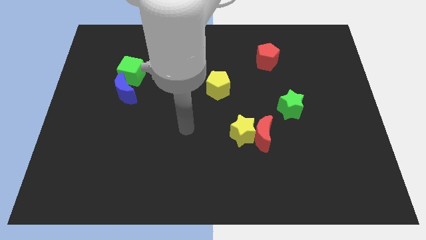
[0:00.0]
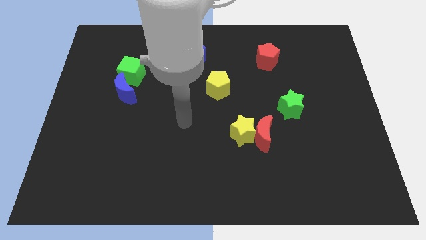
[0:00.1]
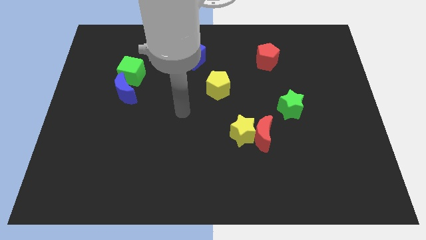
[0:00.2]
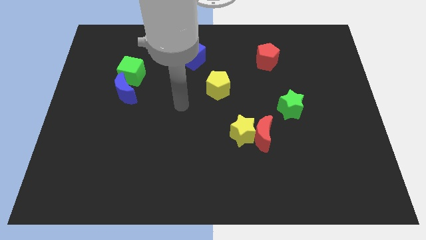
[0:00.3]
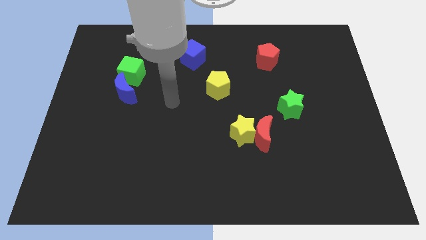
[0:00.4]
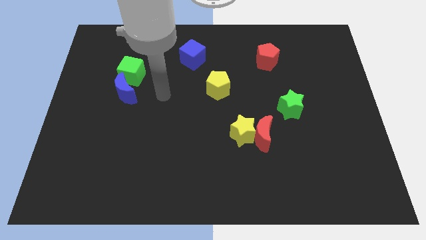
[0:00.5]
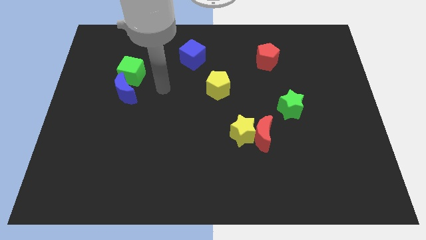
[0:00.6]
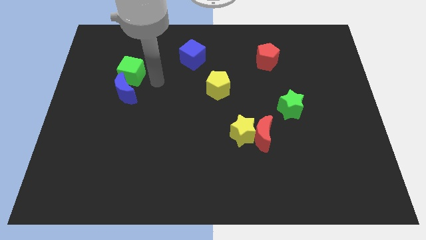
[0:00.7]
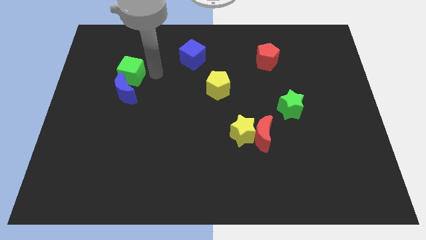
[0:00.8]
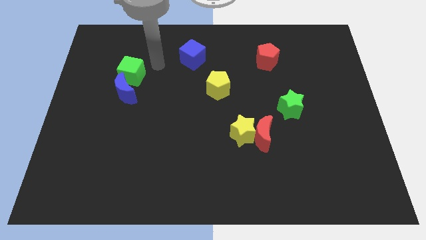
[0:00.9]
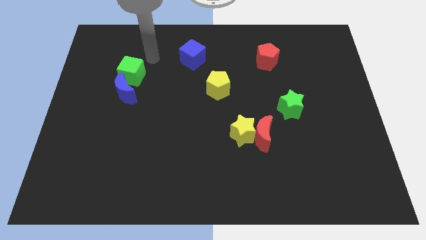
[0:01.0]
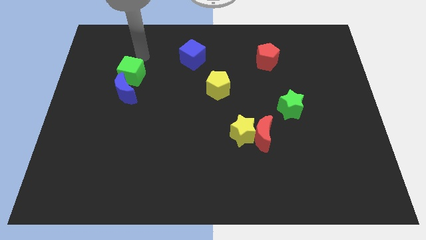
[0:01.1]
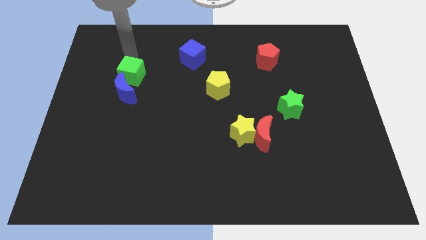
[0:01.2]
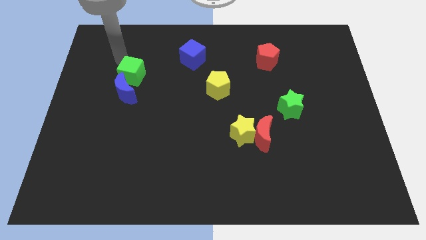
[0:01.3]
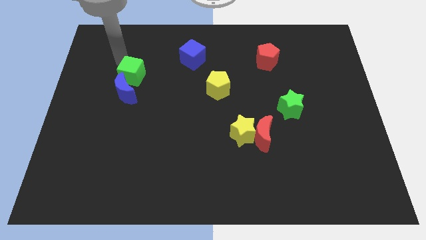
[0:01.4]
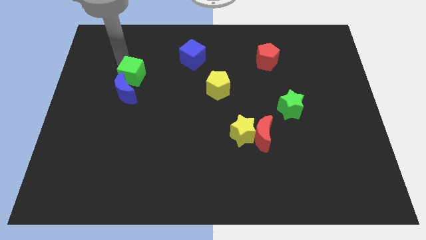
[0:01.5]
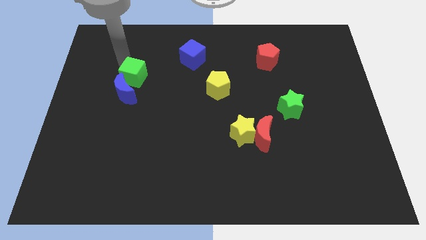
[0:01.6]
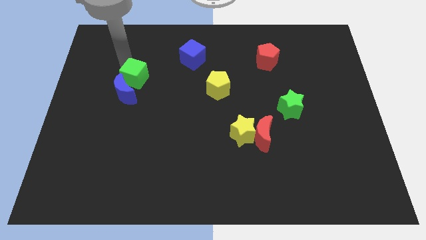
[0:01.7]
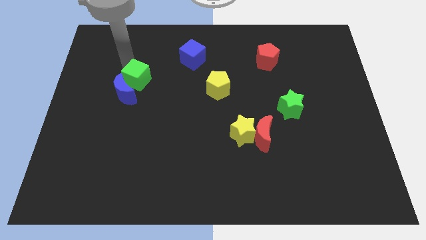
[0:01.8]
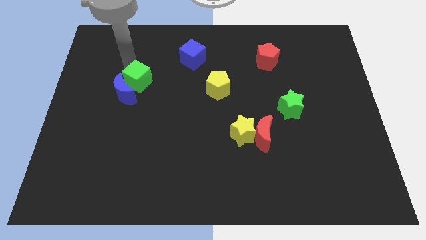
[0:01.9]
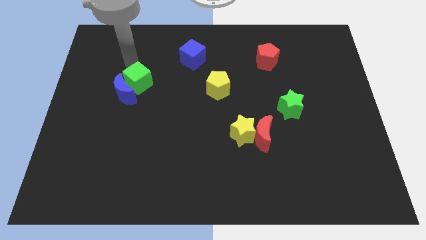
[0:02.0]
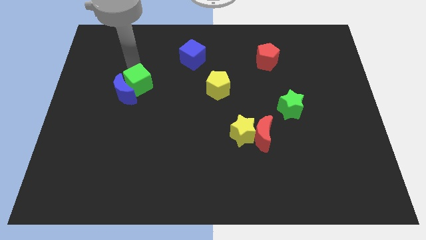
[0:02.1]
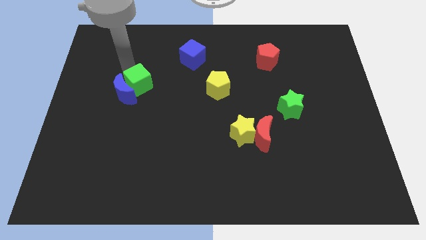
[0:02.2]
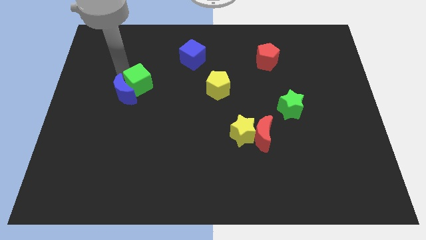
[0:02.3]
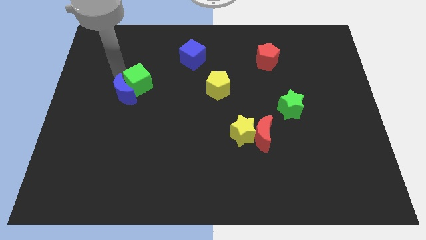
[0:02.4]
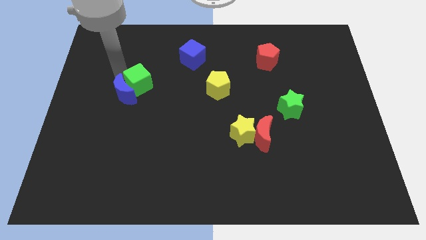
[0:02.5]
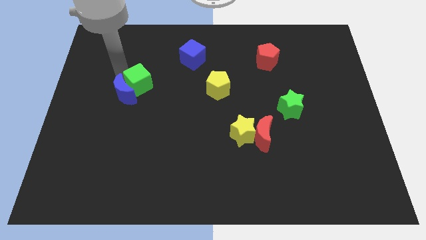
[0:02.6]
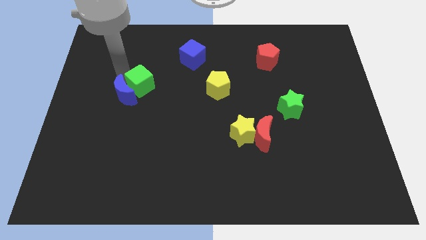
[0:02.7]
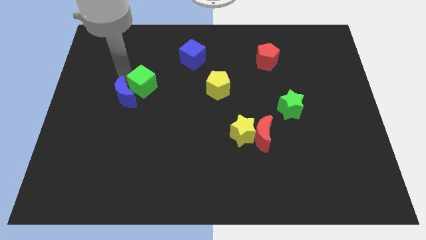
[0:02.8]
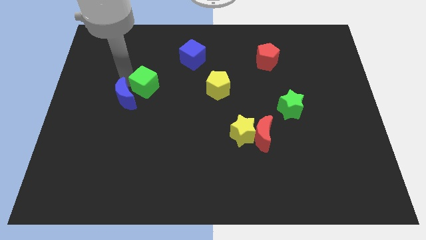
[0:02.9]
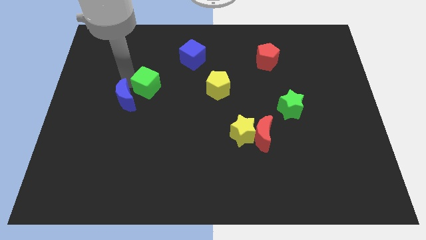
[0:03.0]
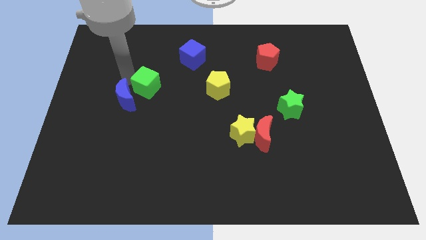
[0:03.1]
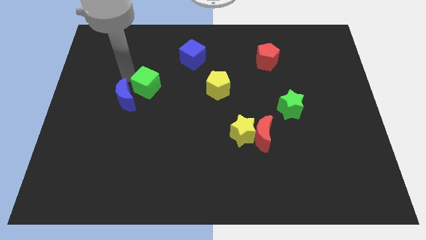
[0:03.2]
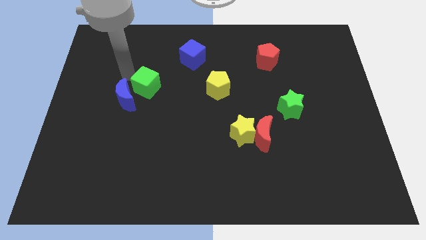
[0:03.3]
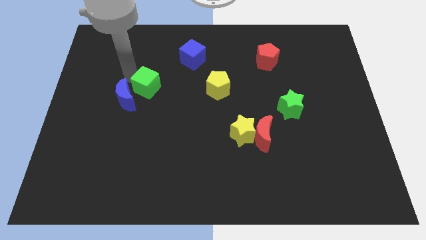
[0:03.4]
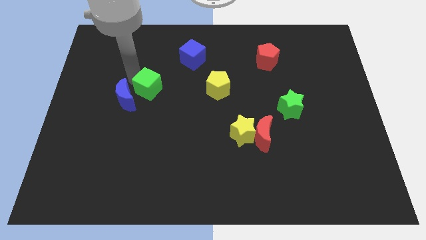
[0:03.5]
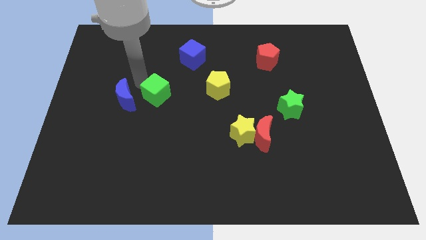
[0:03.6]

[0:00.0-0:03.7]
slightly move the green cube downwards and then right

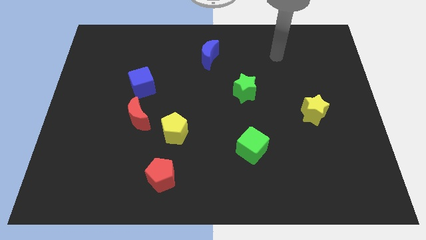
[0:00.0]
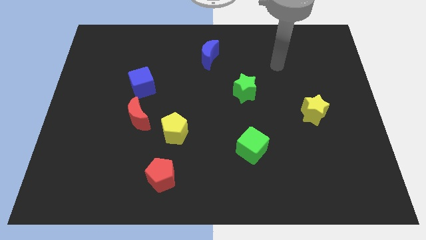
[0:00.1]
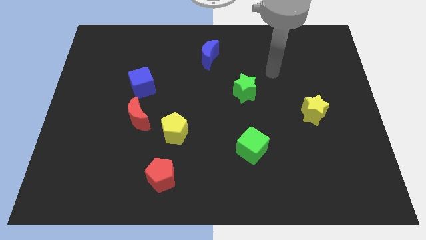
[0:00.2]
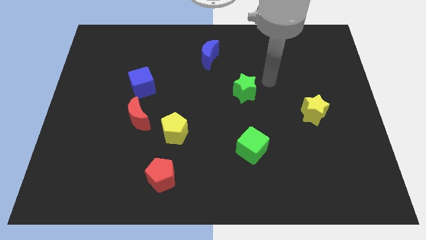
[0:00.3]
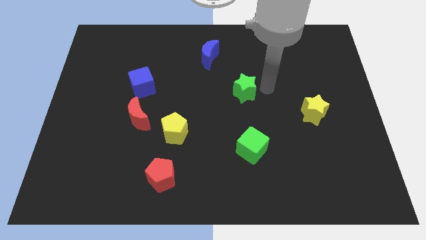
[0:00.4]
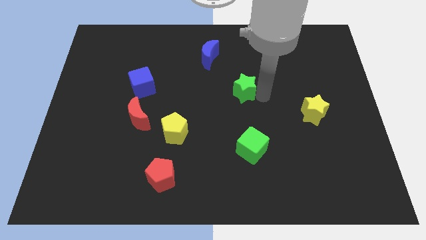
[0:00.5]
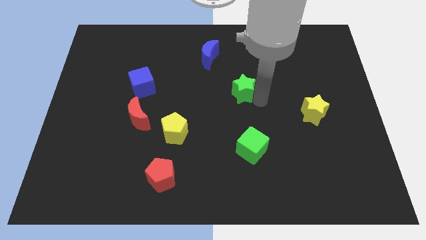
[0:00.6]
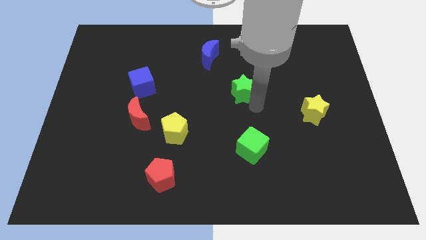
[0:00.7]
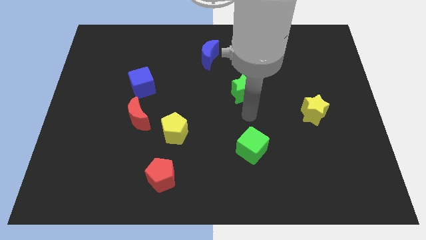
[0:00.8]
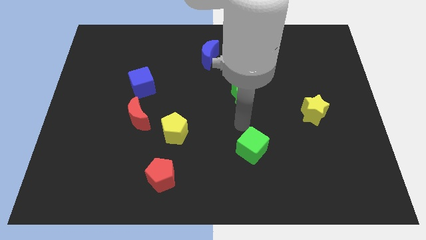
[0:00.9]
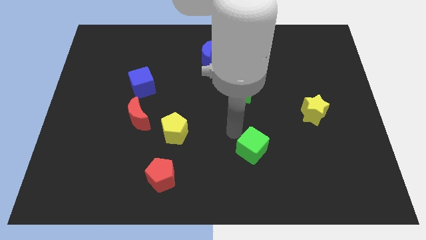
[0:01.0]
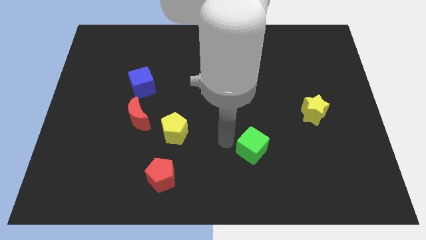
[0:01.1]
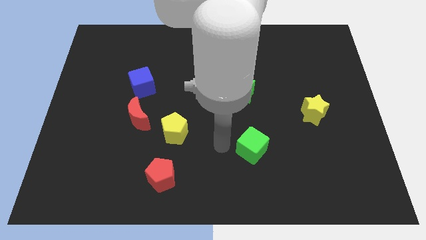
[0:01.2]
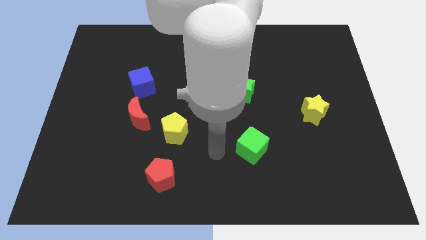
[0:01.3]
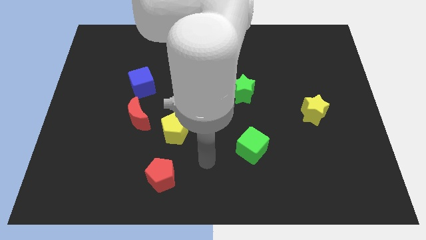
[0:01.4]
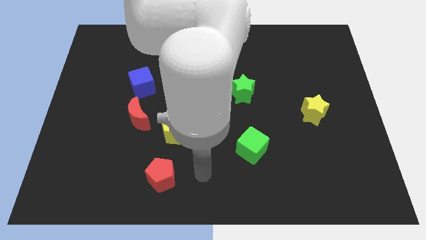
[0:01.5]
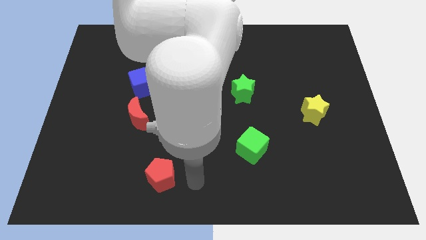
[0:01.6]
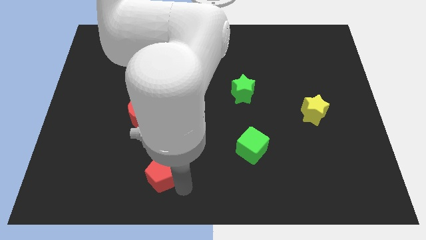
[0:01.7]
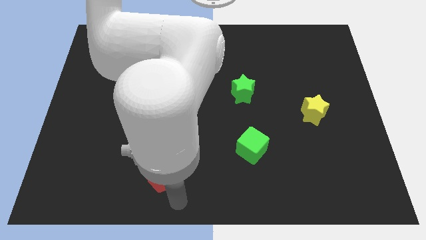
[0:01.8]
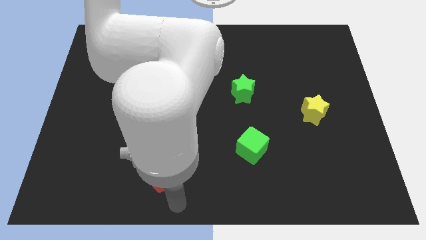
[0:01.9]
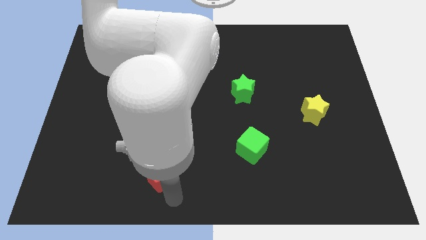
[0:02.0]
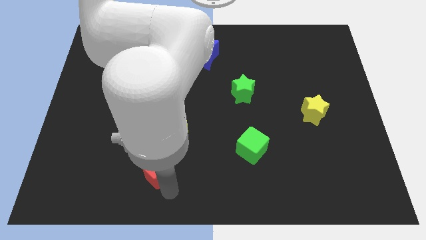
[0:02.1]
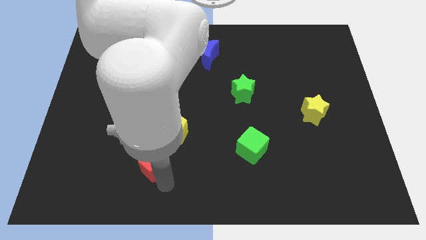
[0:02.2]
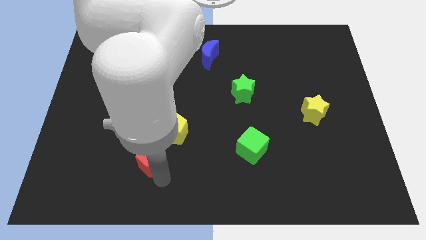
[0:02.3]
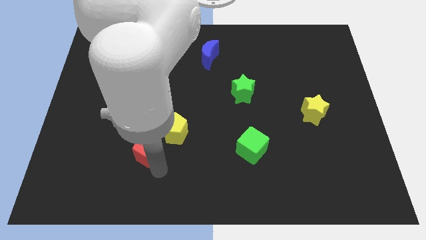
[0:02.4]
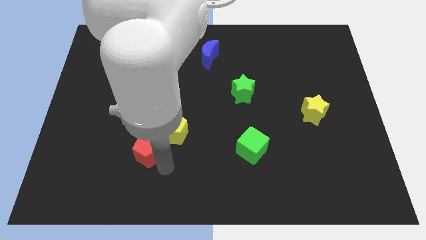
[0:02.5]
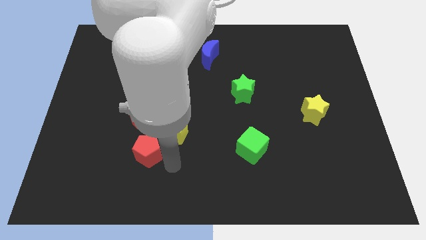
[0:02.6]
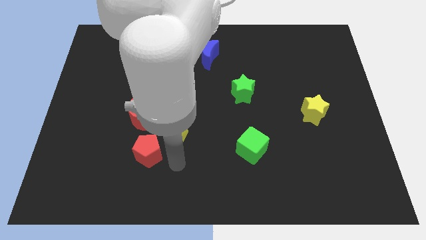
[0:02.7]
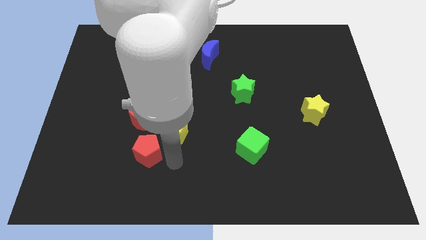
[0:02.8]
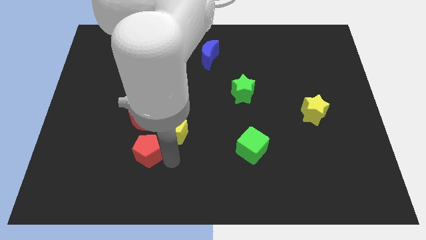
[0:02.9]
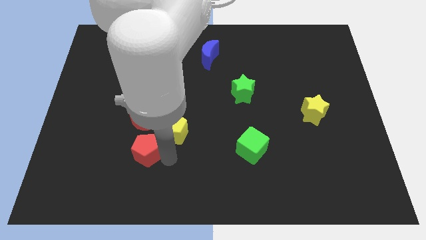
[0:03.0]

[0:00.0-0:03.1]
slide the red pentagon slightly up and then left

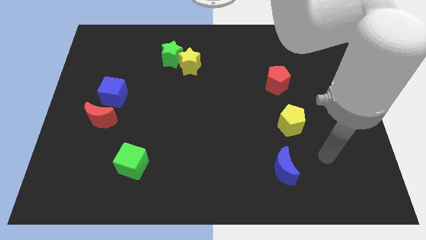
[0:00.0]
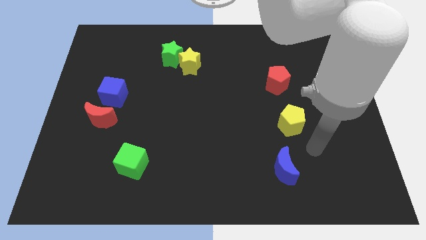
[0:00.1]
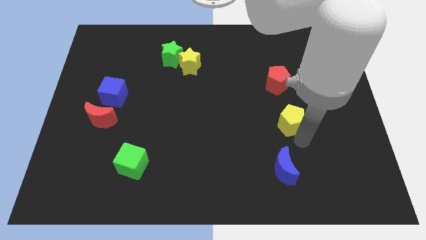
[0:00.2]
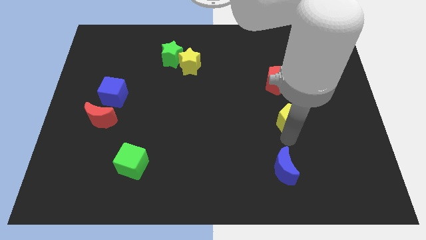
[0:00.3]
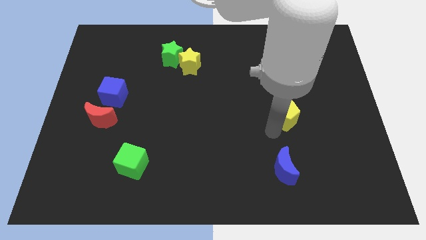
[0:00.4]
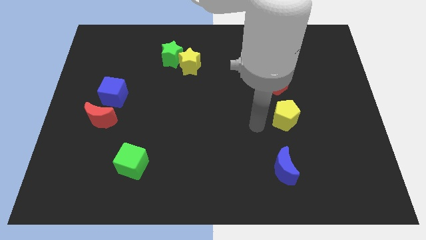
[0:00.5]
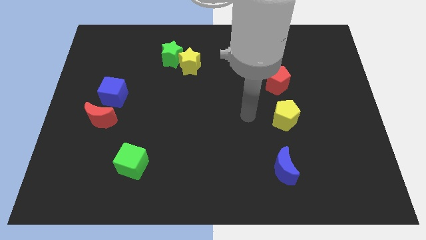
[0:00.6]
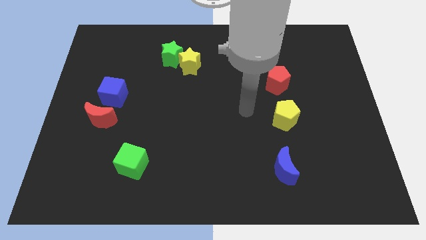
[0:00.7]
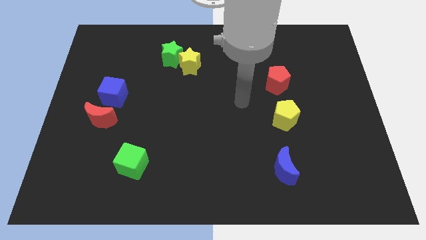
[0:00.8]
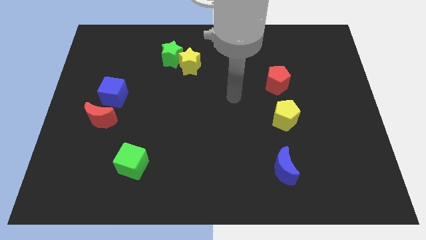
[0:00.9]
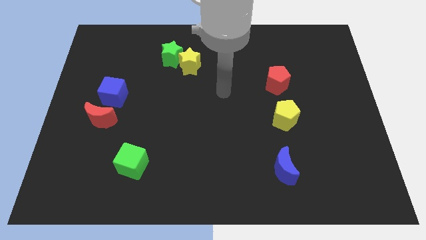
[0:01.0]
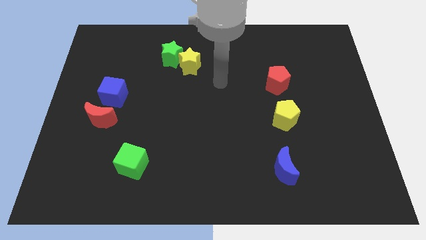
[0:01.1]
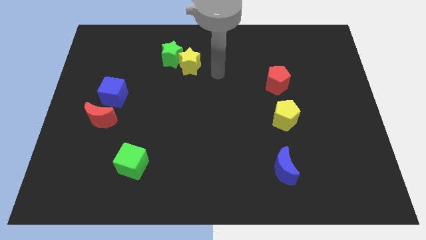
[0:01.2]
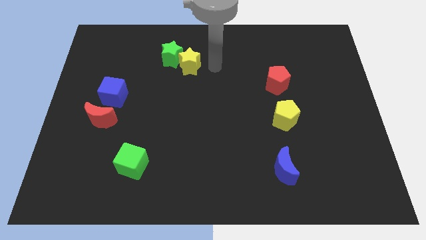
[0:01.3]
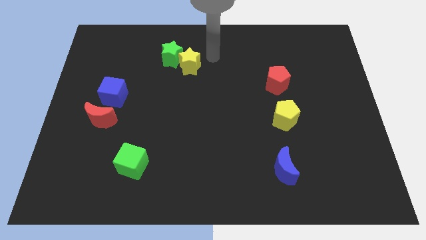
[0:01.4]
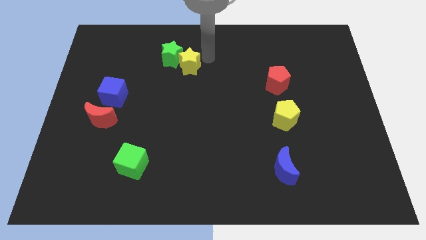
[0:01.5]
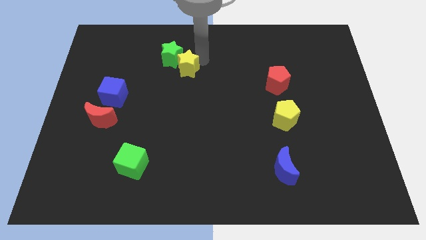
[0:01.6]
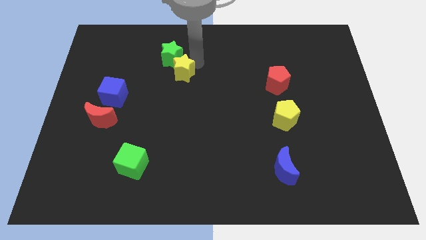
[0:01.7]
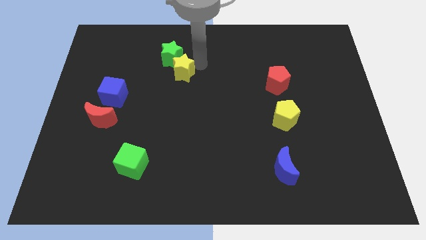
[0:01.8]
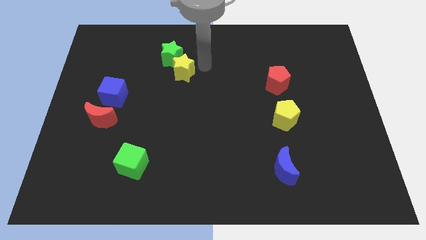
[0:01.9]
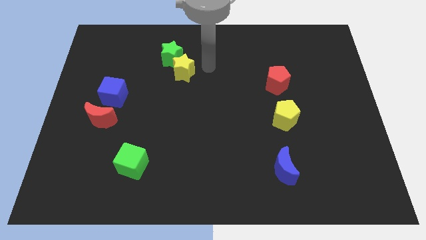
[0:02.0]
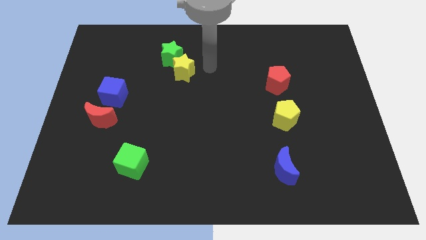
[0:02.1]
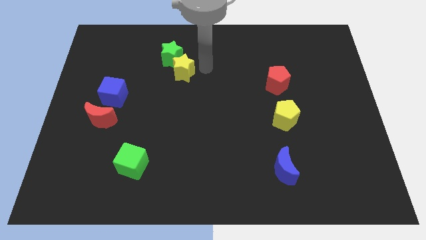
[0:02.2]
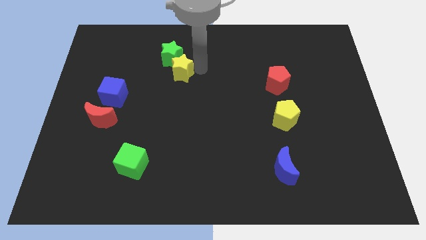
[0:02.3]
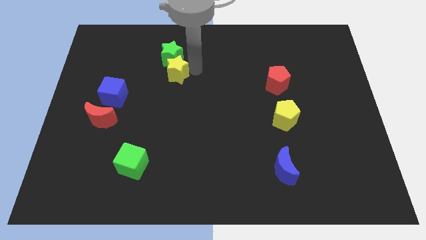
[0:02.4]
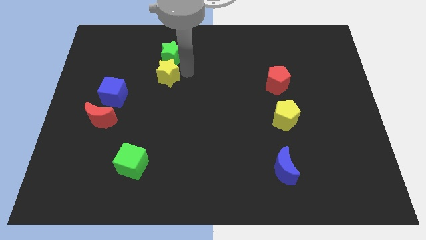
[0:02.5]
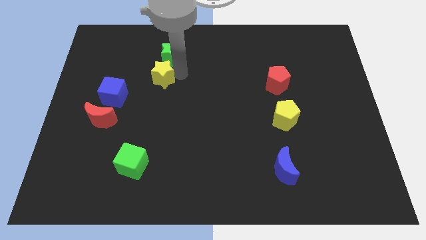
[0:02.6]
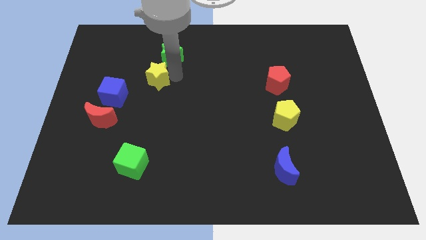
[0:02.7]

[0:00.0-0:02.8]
move the yellow star a little bit to the left
